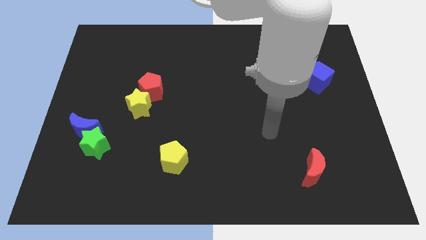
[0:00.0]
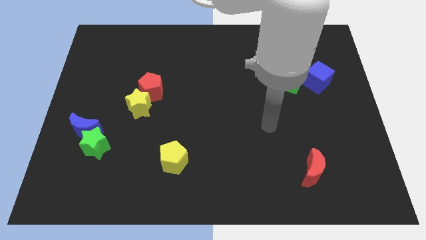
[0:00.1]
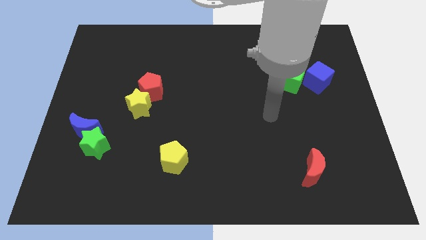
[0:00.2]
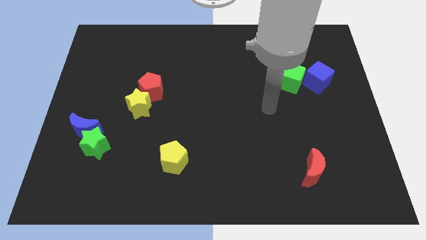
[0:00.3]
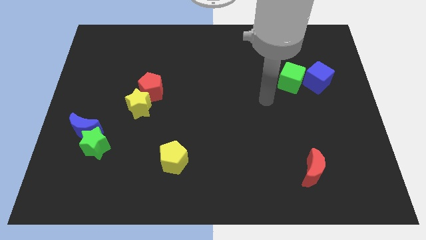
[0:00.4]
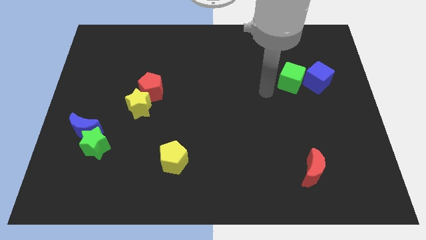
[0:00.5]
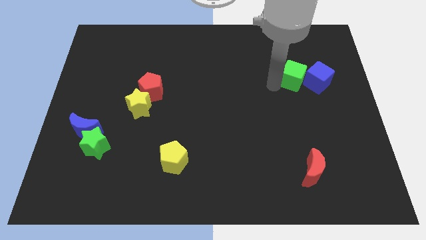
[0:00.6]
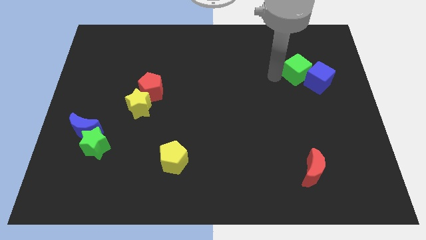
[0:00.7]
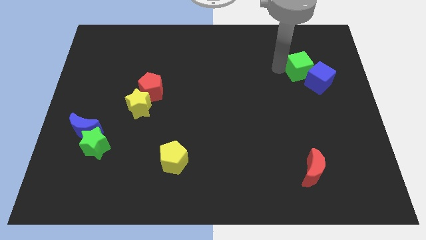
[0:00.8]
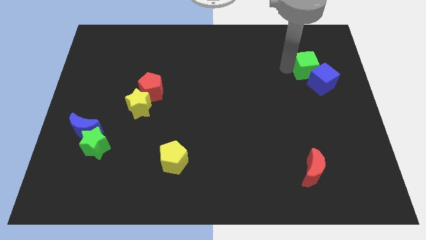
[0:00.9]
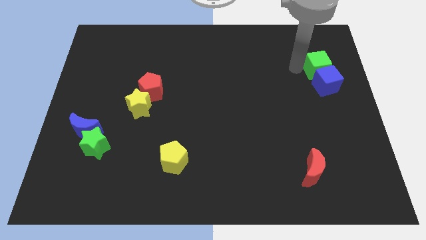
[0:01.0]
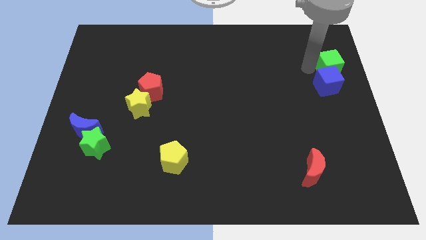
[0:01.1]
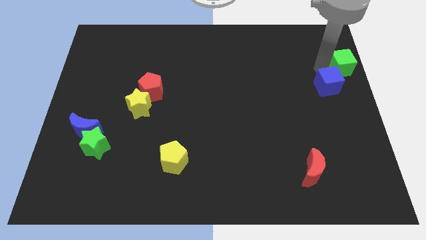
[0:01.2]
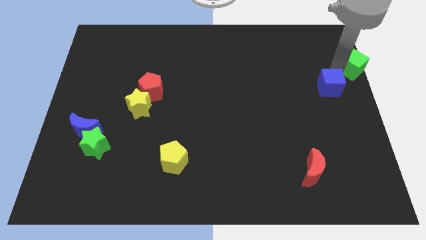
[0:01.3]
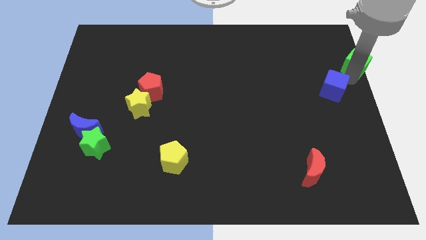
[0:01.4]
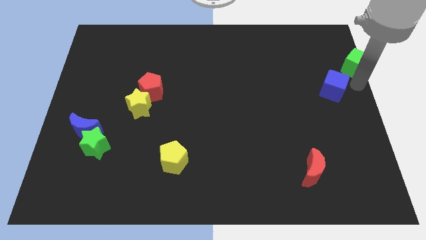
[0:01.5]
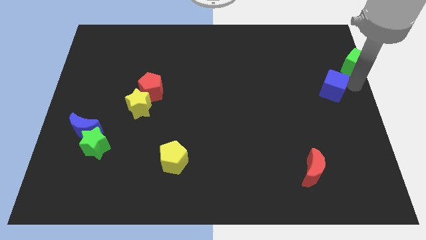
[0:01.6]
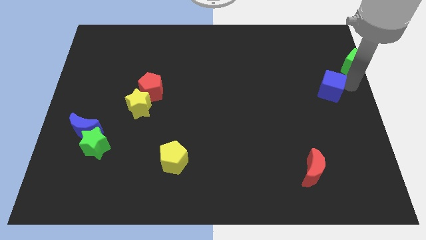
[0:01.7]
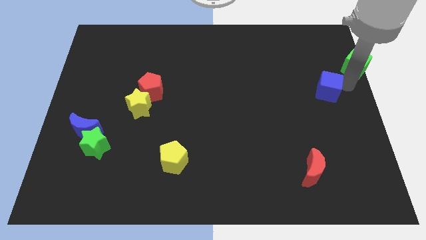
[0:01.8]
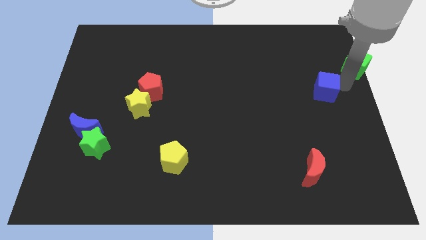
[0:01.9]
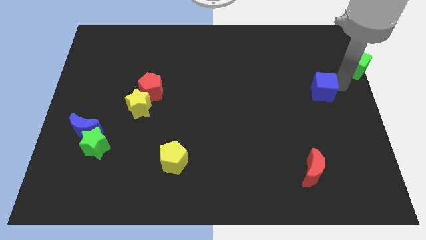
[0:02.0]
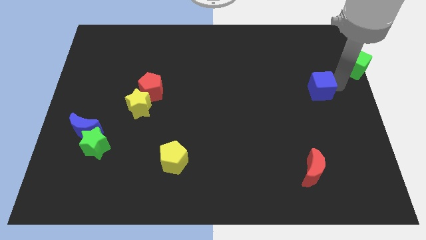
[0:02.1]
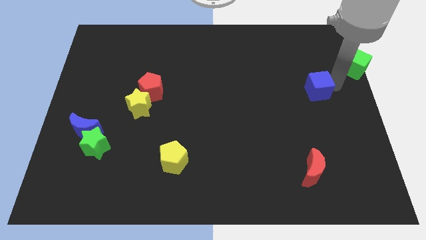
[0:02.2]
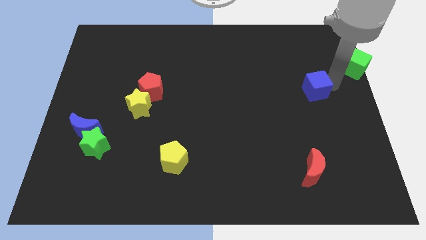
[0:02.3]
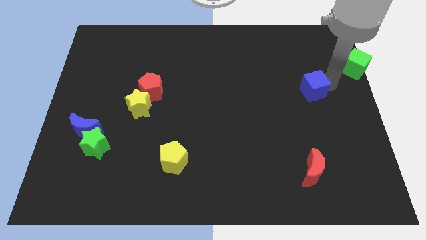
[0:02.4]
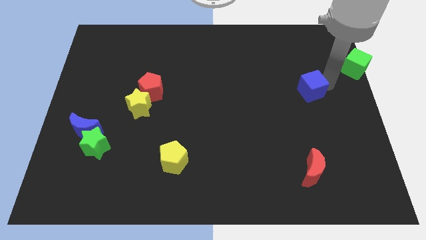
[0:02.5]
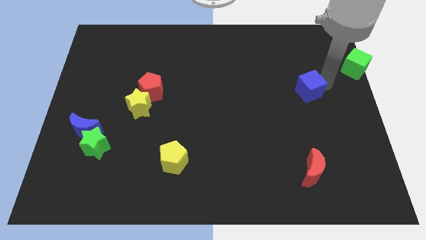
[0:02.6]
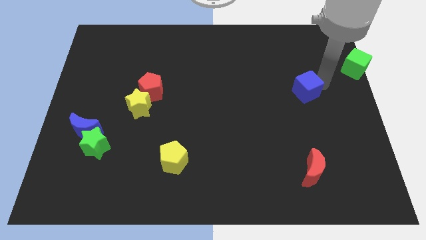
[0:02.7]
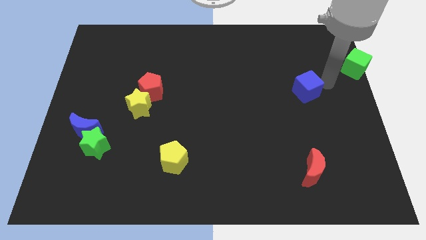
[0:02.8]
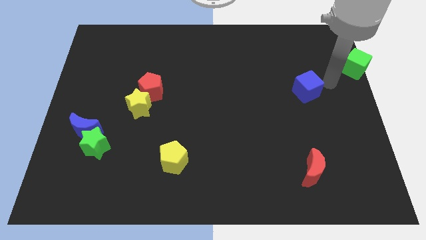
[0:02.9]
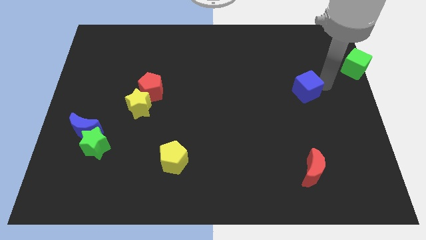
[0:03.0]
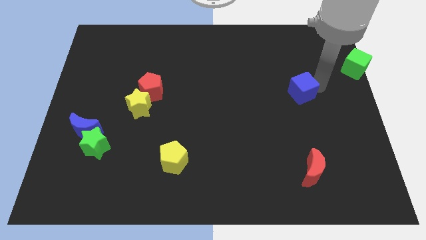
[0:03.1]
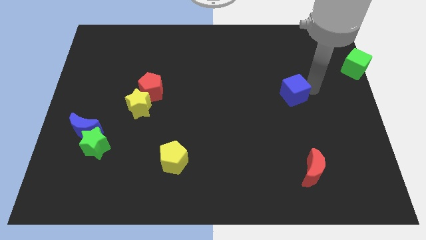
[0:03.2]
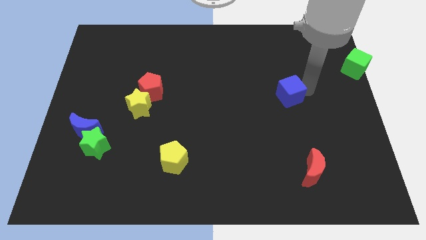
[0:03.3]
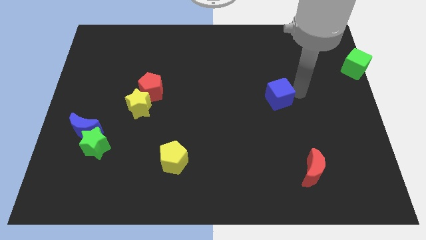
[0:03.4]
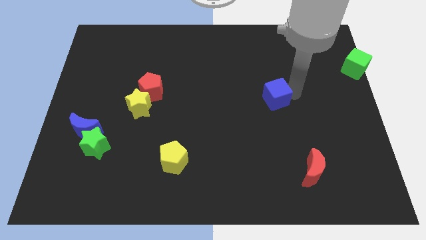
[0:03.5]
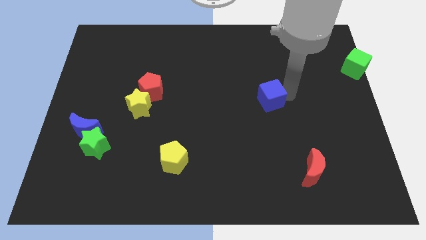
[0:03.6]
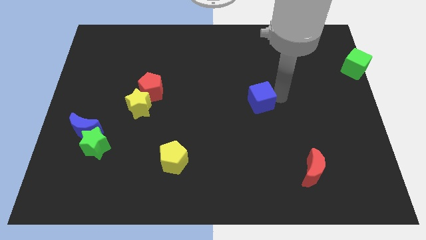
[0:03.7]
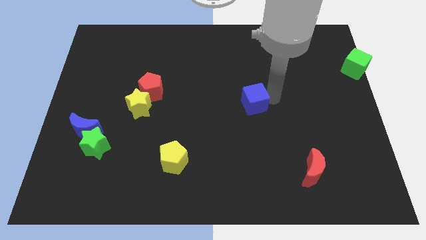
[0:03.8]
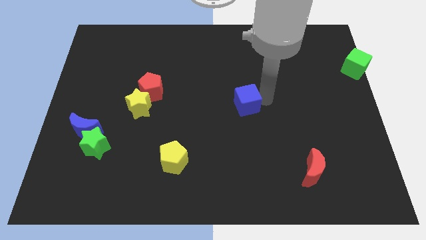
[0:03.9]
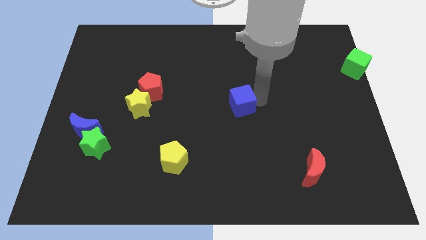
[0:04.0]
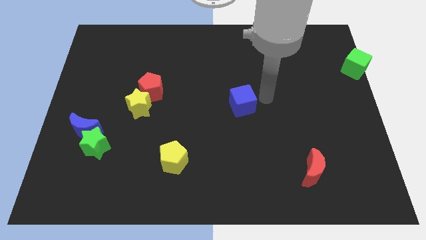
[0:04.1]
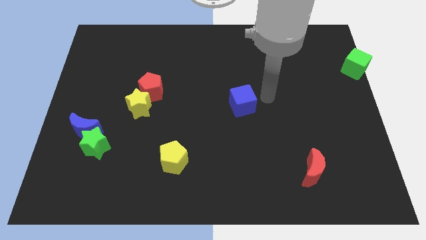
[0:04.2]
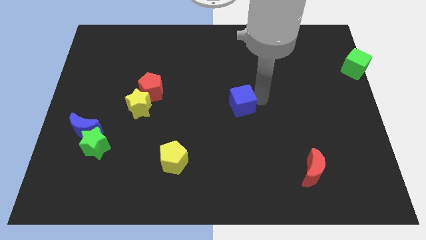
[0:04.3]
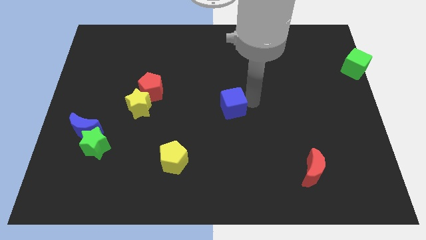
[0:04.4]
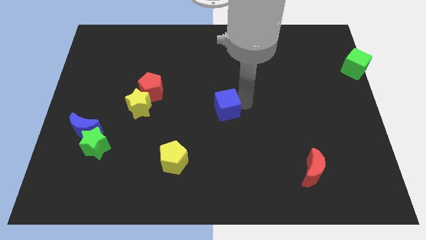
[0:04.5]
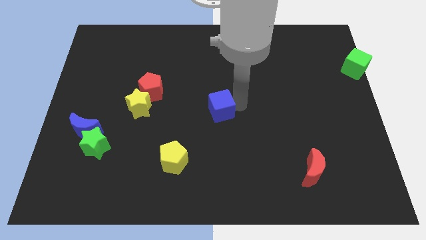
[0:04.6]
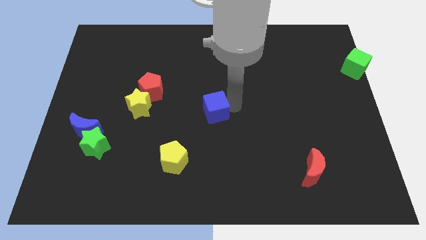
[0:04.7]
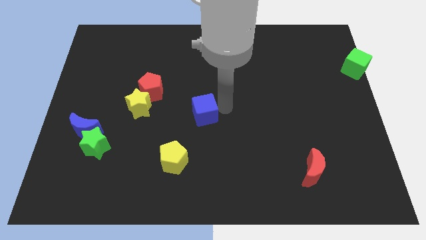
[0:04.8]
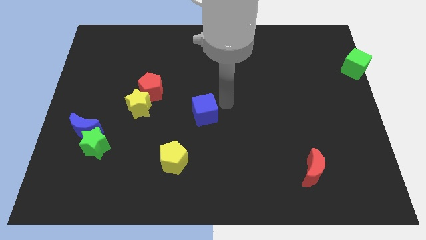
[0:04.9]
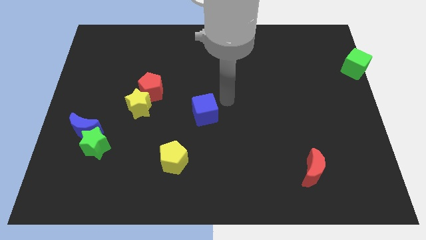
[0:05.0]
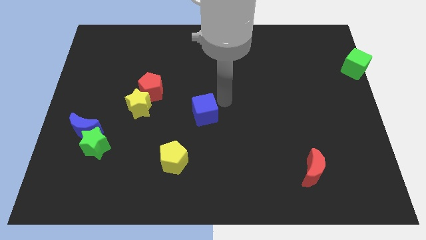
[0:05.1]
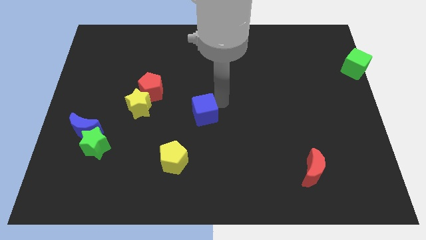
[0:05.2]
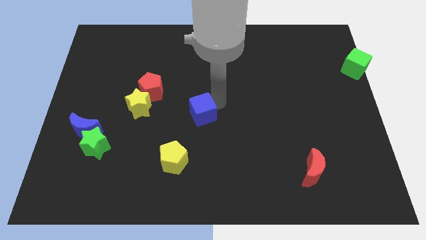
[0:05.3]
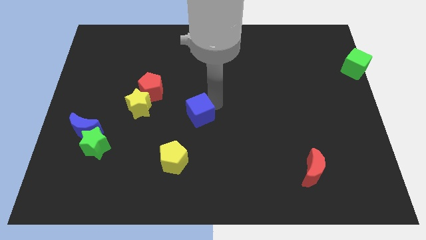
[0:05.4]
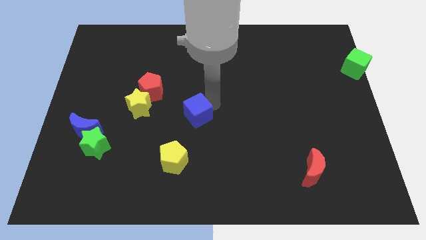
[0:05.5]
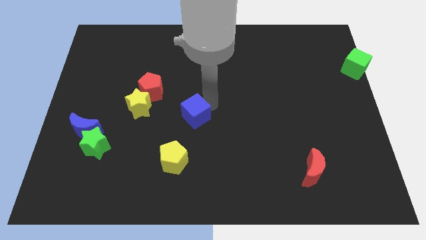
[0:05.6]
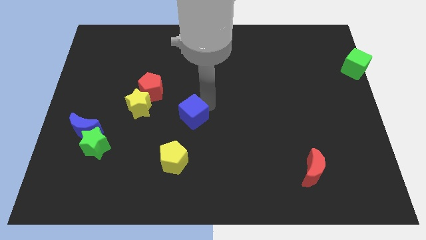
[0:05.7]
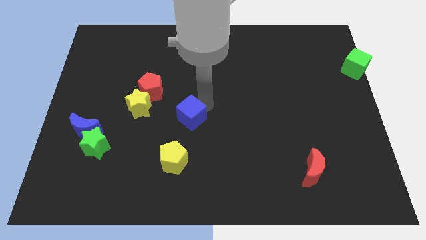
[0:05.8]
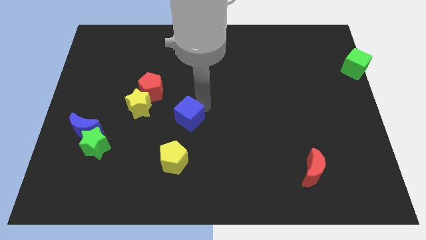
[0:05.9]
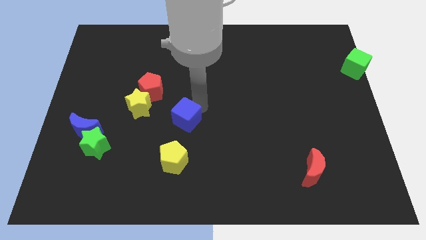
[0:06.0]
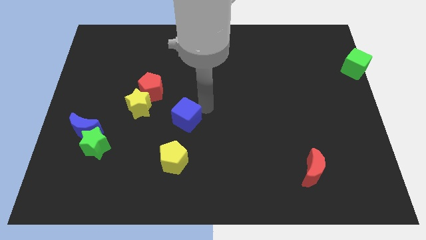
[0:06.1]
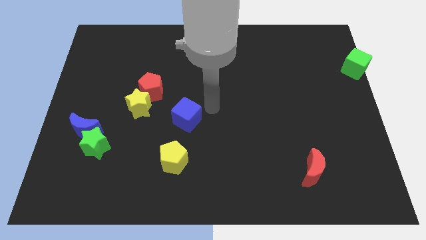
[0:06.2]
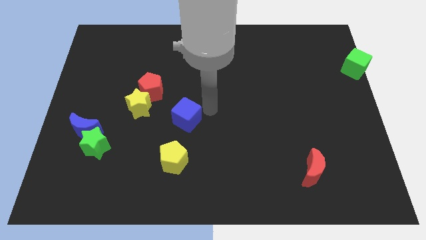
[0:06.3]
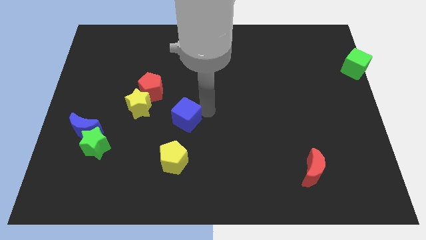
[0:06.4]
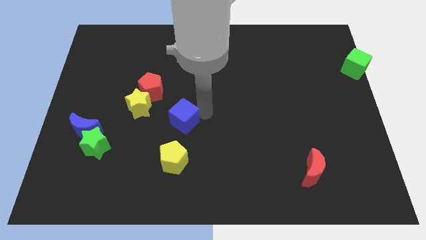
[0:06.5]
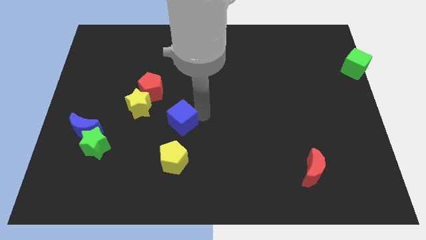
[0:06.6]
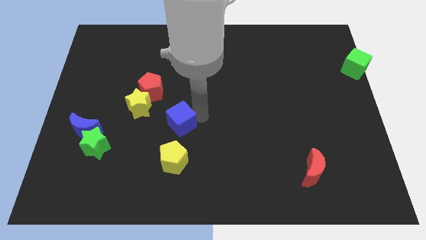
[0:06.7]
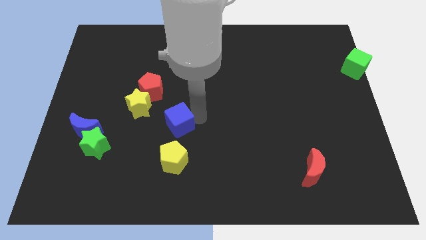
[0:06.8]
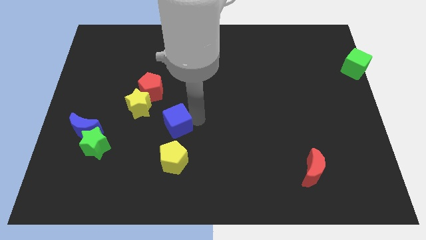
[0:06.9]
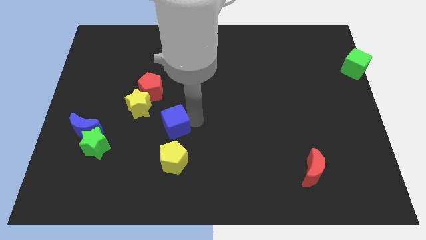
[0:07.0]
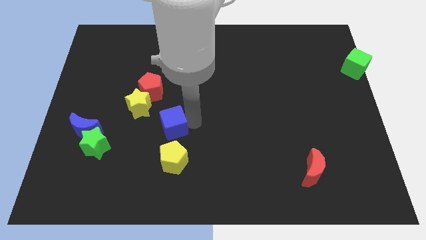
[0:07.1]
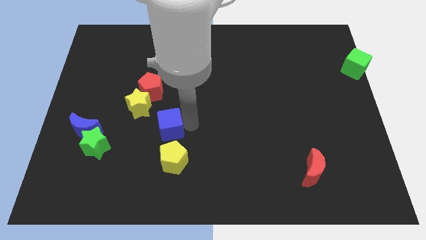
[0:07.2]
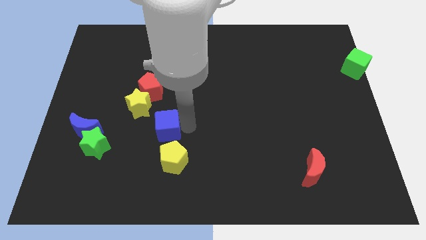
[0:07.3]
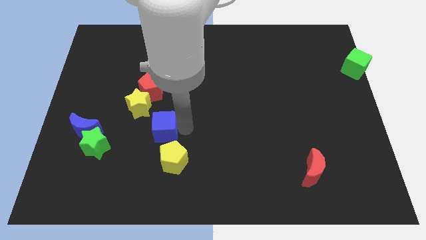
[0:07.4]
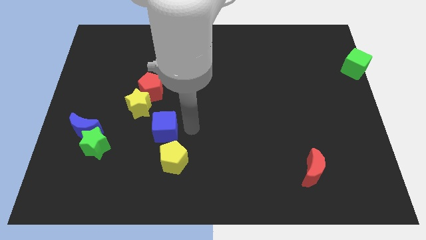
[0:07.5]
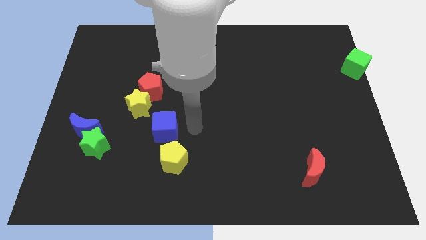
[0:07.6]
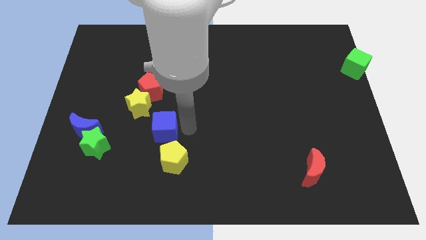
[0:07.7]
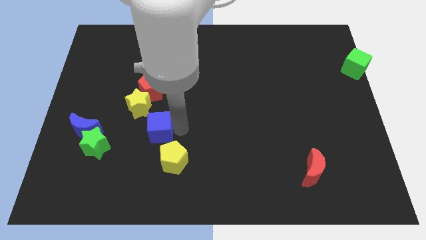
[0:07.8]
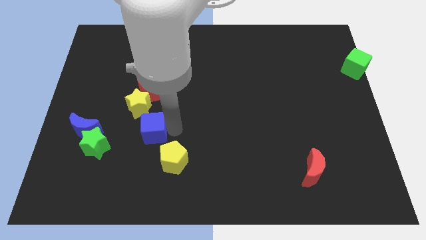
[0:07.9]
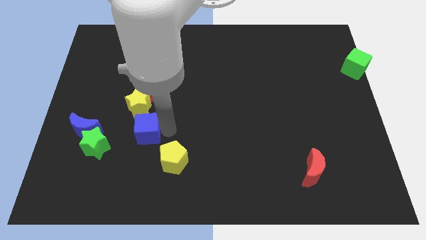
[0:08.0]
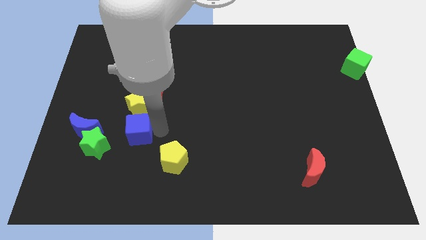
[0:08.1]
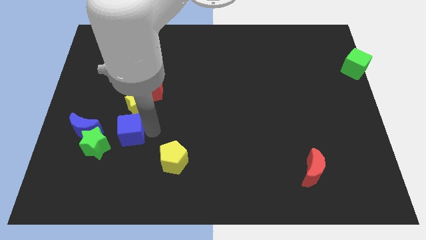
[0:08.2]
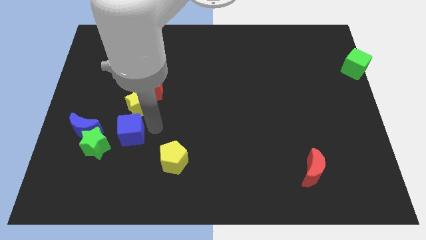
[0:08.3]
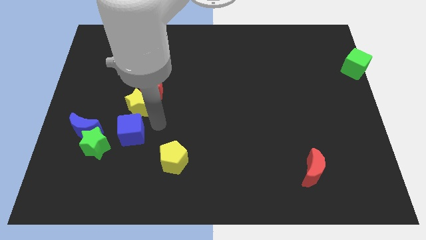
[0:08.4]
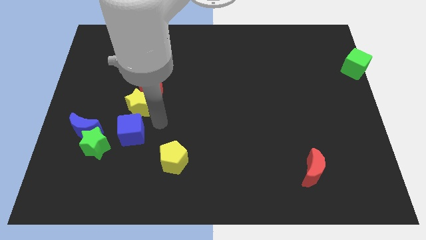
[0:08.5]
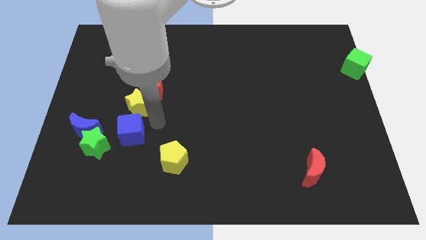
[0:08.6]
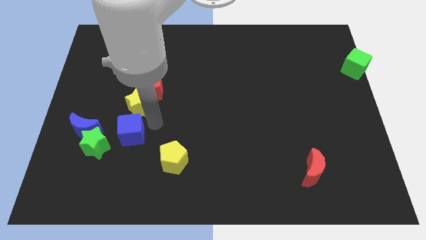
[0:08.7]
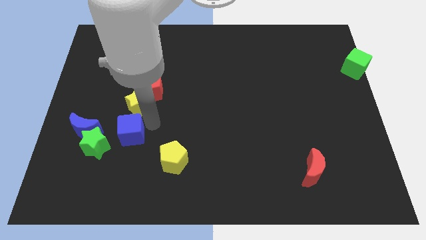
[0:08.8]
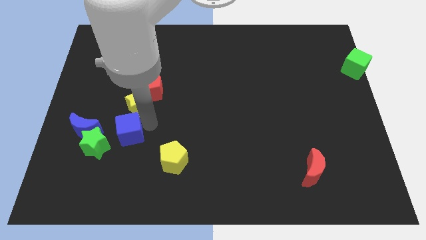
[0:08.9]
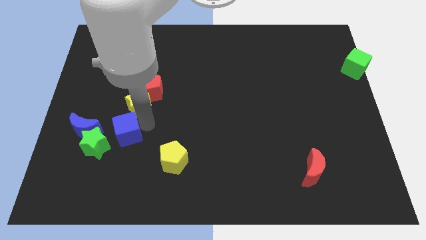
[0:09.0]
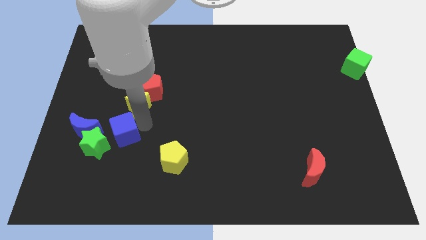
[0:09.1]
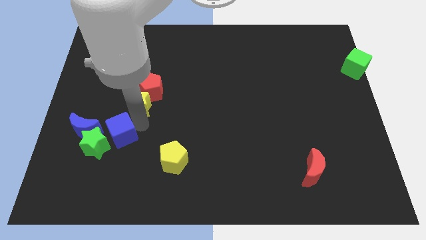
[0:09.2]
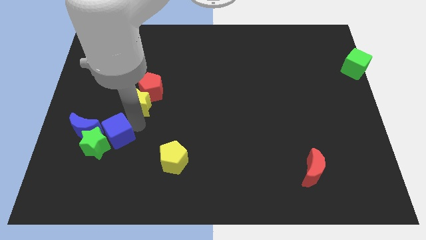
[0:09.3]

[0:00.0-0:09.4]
slide the blue cube next to the green star
